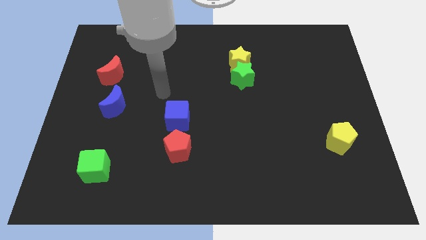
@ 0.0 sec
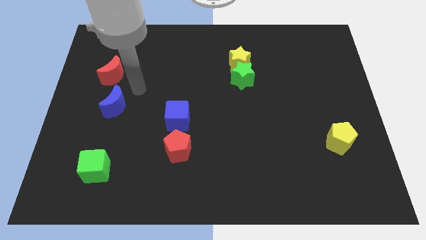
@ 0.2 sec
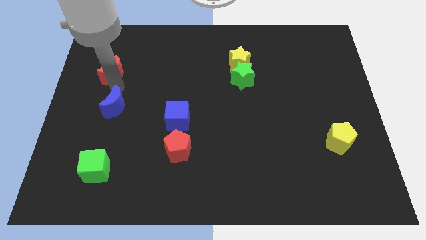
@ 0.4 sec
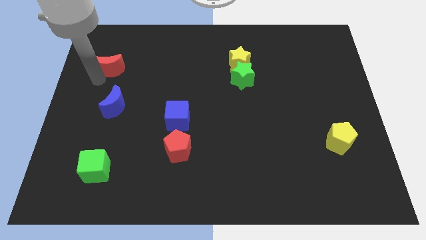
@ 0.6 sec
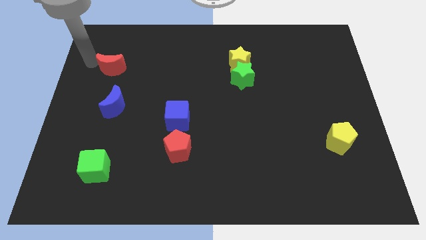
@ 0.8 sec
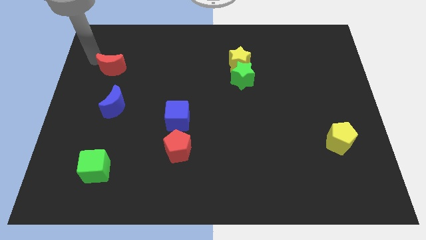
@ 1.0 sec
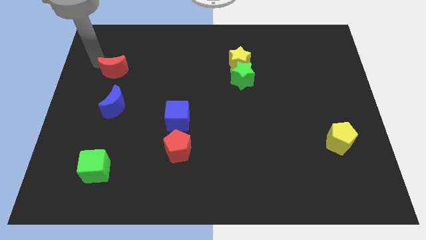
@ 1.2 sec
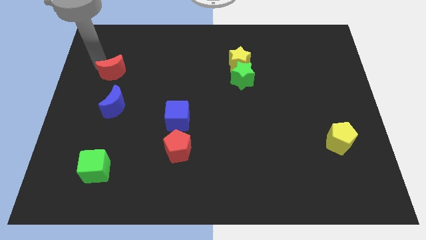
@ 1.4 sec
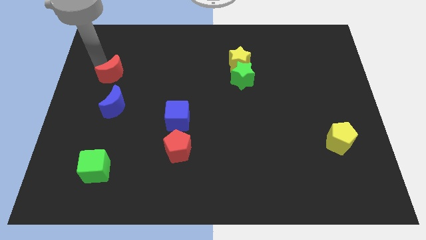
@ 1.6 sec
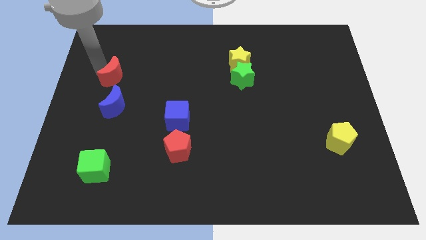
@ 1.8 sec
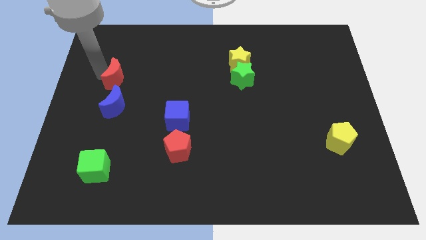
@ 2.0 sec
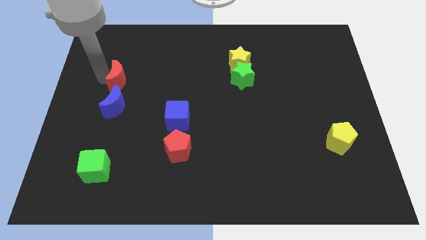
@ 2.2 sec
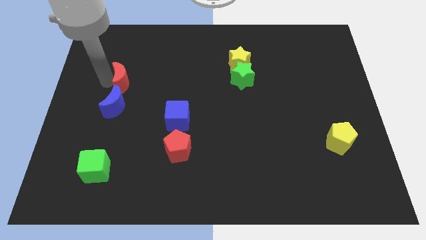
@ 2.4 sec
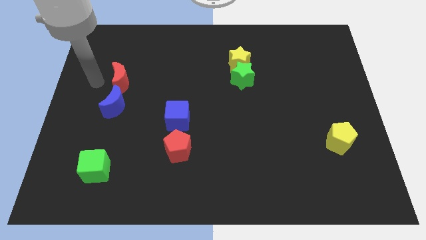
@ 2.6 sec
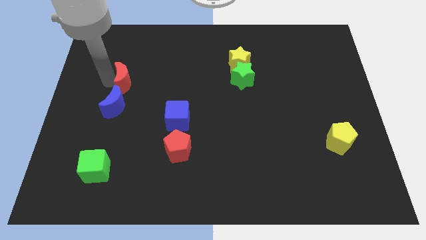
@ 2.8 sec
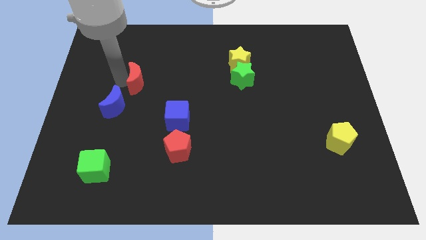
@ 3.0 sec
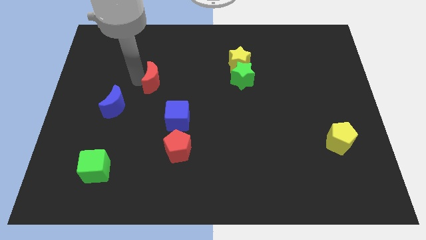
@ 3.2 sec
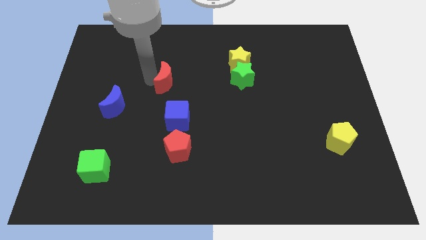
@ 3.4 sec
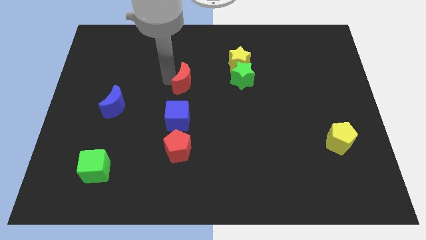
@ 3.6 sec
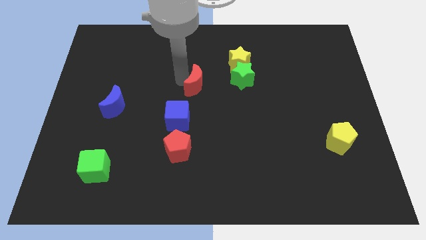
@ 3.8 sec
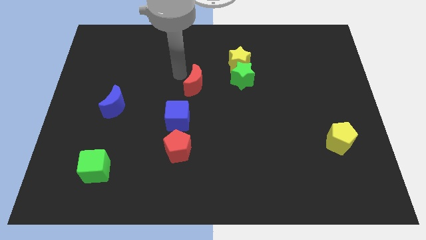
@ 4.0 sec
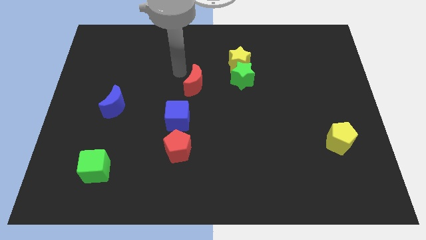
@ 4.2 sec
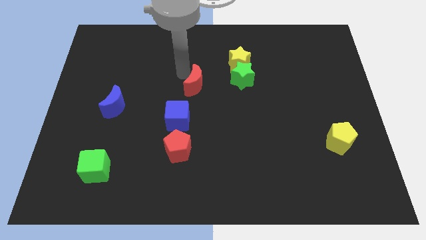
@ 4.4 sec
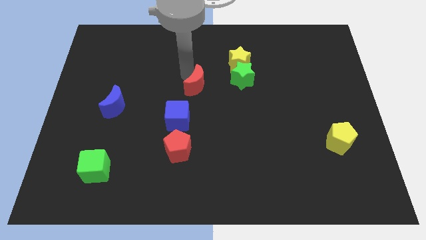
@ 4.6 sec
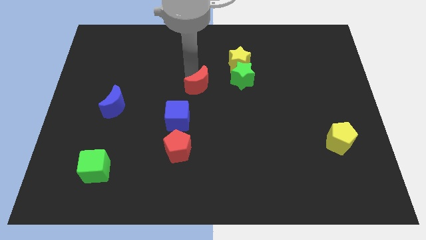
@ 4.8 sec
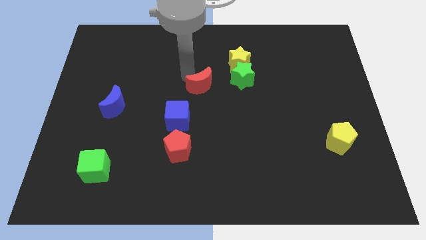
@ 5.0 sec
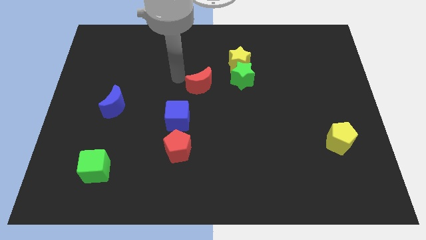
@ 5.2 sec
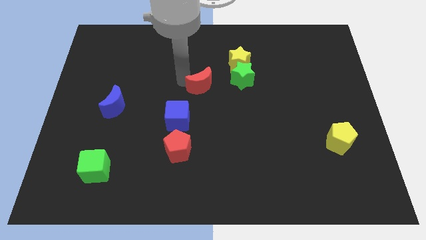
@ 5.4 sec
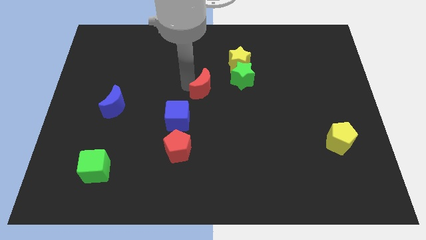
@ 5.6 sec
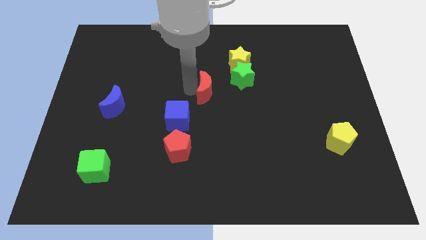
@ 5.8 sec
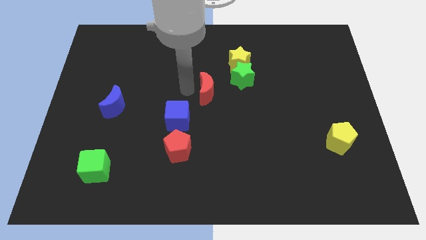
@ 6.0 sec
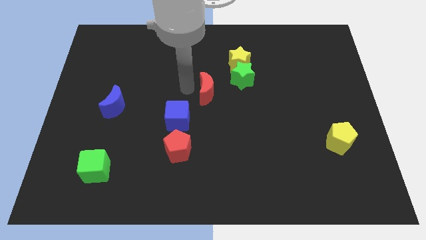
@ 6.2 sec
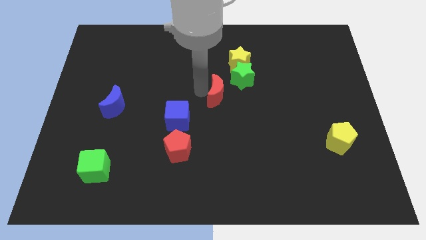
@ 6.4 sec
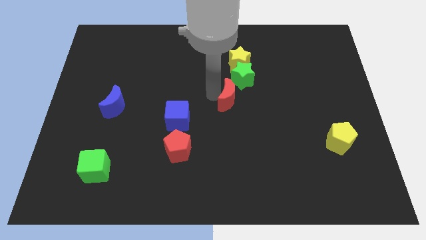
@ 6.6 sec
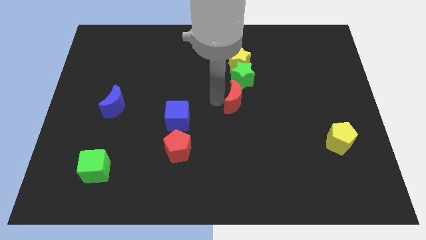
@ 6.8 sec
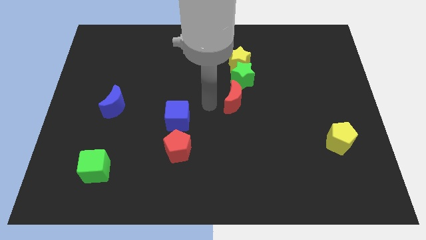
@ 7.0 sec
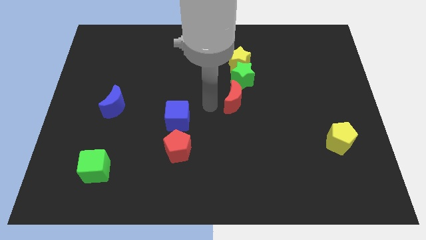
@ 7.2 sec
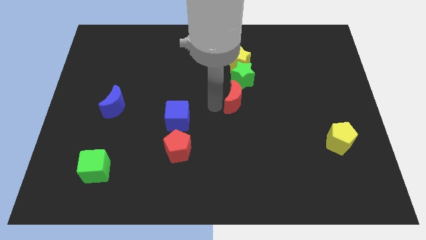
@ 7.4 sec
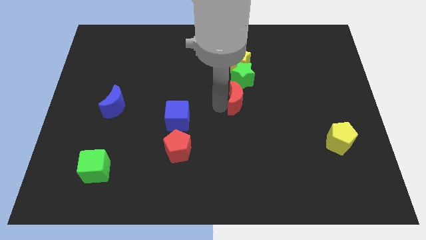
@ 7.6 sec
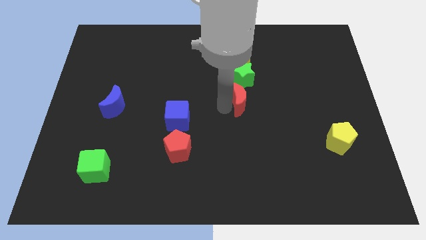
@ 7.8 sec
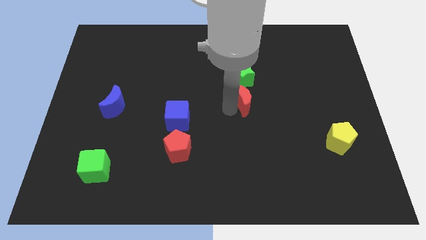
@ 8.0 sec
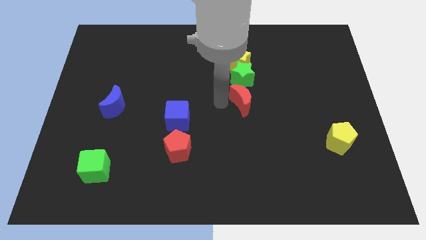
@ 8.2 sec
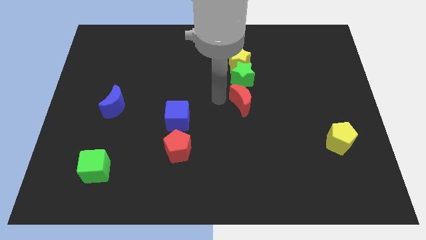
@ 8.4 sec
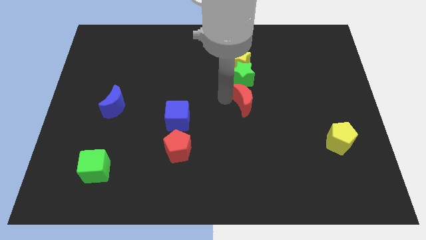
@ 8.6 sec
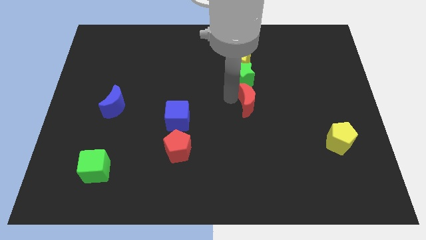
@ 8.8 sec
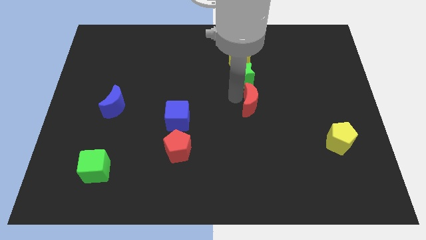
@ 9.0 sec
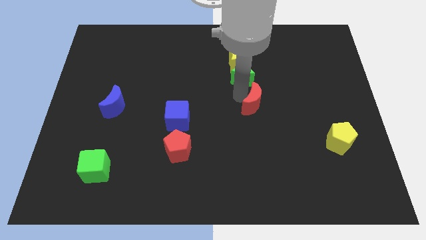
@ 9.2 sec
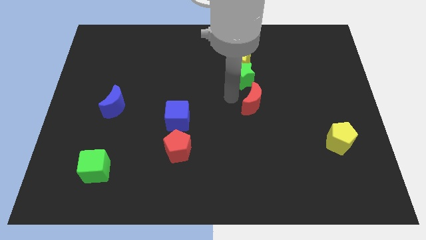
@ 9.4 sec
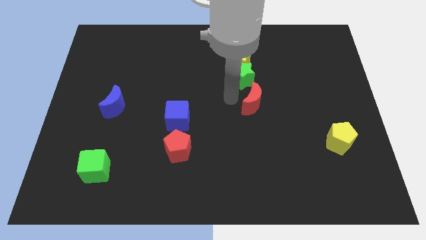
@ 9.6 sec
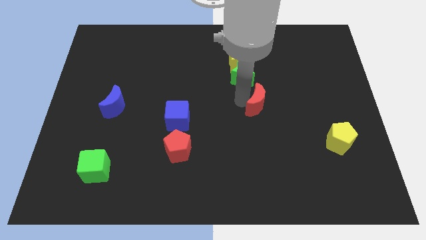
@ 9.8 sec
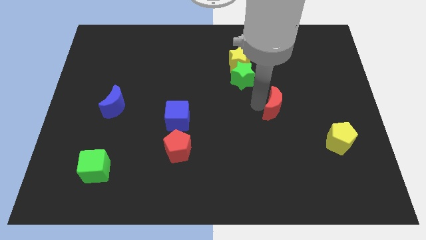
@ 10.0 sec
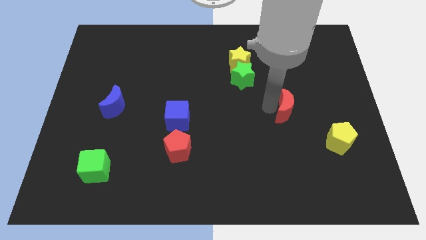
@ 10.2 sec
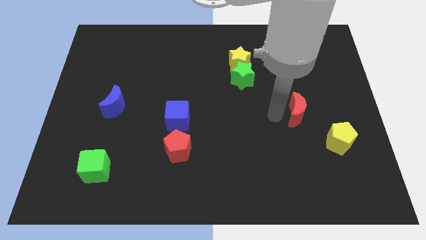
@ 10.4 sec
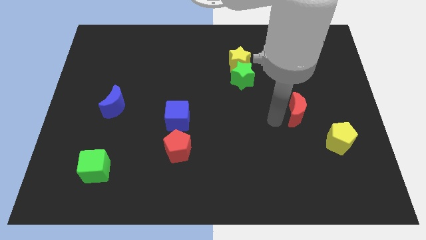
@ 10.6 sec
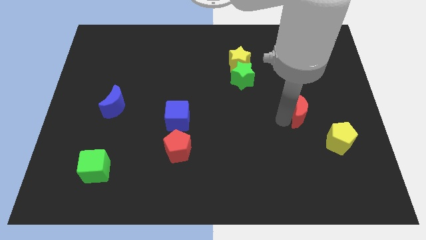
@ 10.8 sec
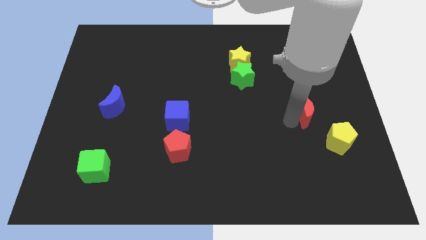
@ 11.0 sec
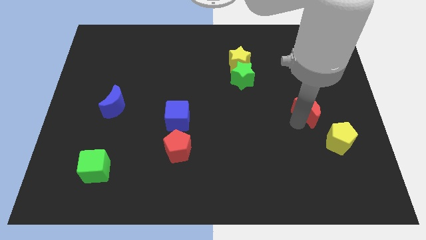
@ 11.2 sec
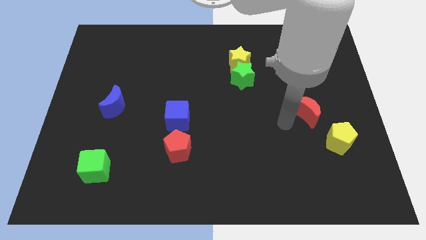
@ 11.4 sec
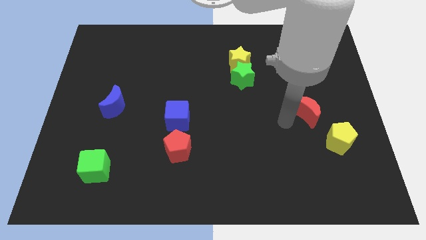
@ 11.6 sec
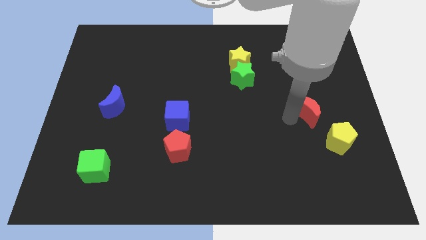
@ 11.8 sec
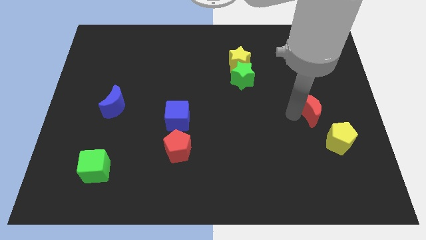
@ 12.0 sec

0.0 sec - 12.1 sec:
move the red moon to the top of the yellow pentagon

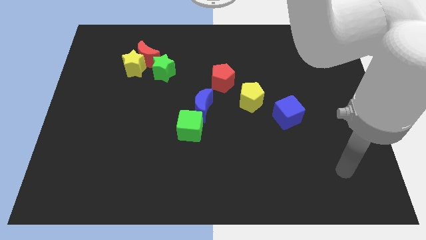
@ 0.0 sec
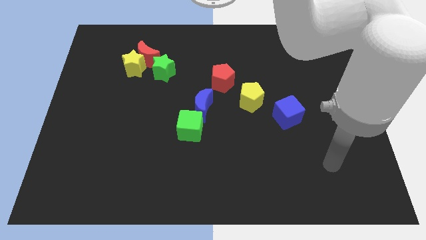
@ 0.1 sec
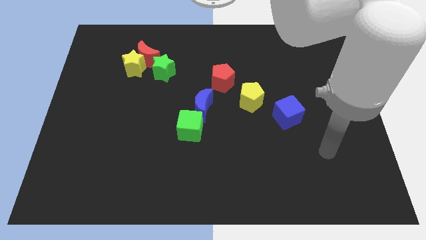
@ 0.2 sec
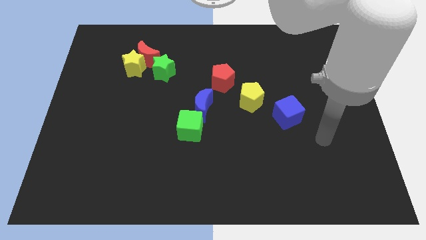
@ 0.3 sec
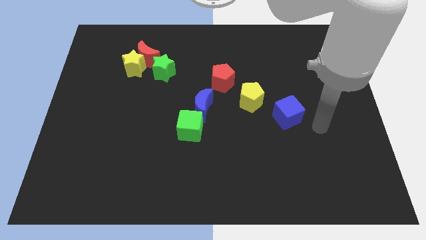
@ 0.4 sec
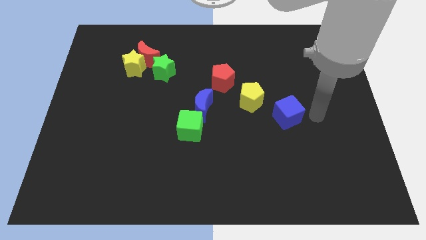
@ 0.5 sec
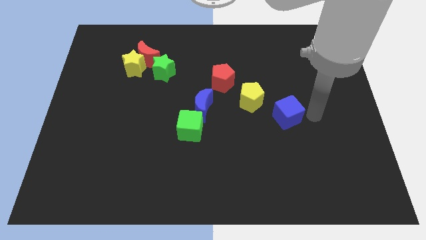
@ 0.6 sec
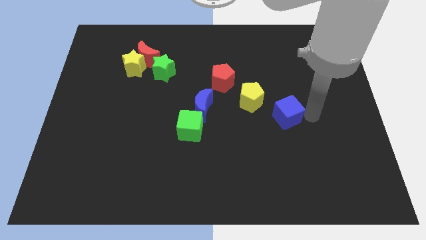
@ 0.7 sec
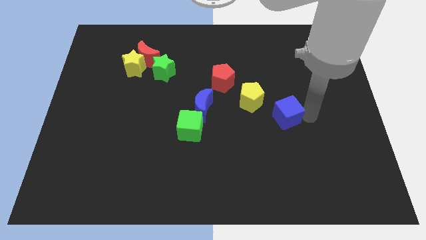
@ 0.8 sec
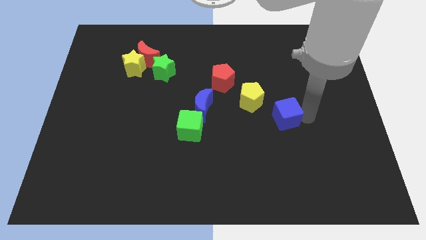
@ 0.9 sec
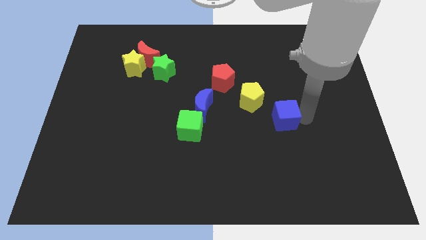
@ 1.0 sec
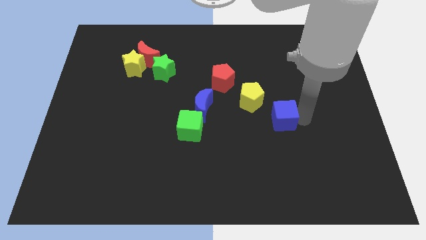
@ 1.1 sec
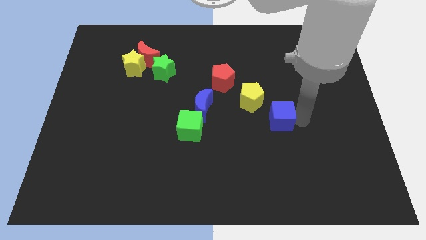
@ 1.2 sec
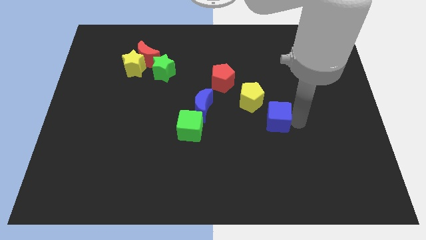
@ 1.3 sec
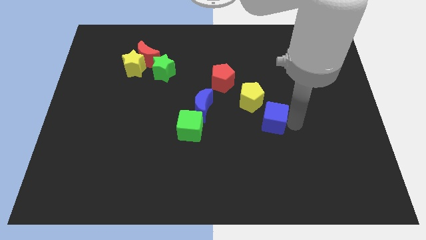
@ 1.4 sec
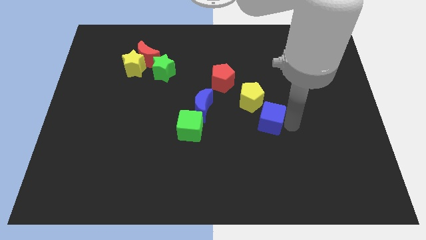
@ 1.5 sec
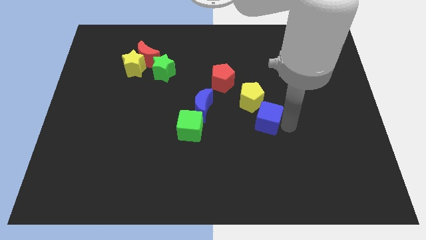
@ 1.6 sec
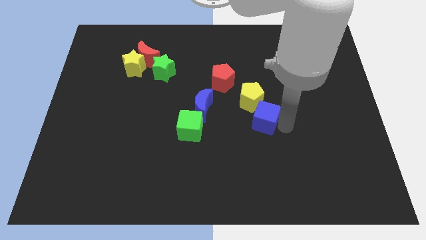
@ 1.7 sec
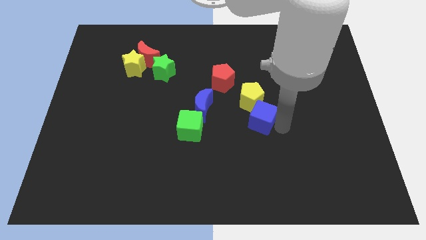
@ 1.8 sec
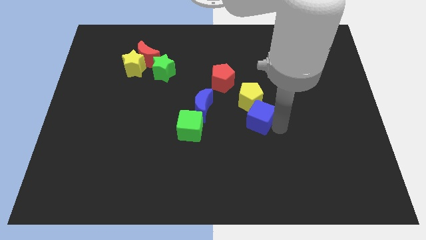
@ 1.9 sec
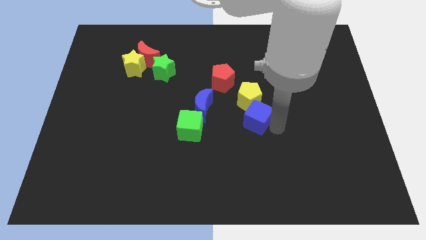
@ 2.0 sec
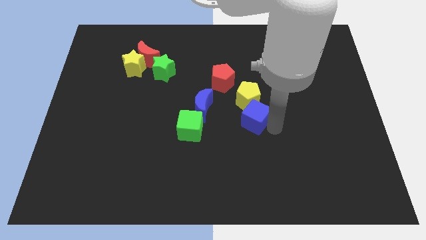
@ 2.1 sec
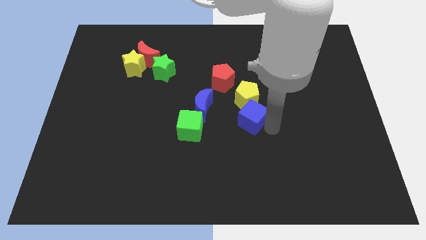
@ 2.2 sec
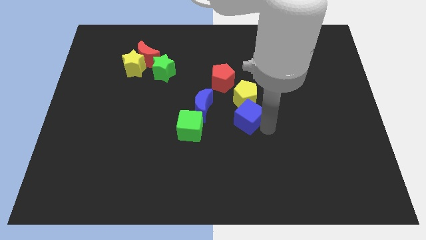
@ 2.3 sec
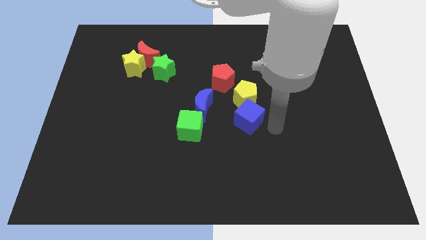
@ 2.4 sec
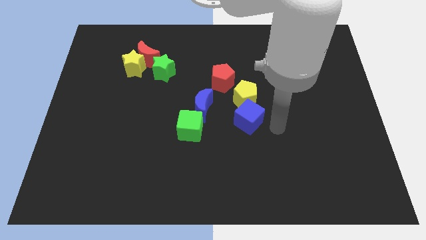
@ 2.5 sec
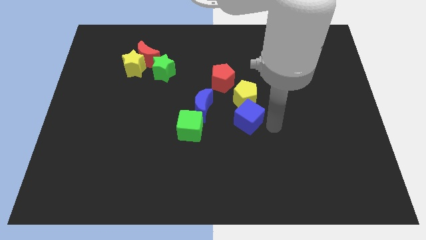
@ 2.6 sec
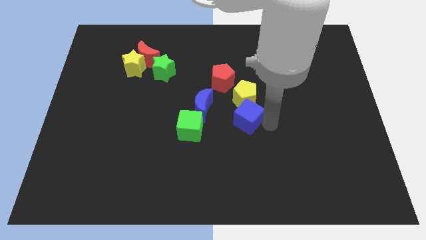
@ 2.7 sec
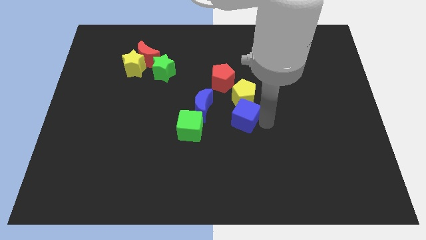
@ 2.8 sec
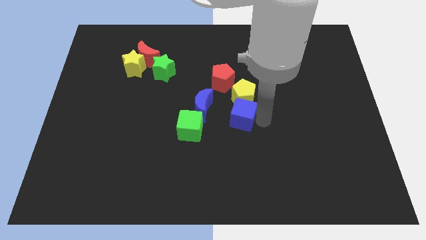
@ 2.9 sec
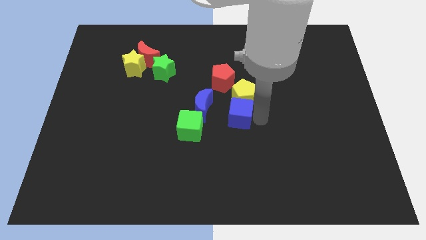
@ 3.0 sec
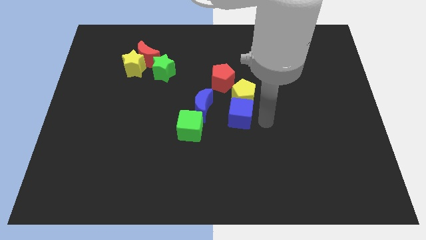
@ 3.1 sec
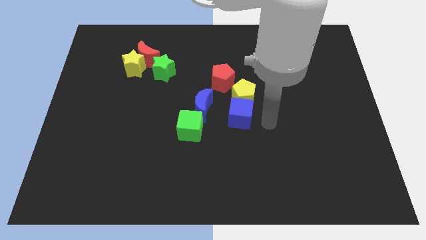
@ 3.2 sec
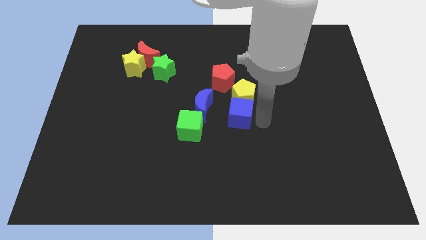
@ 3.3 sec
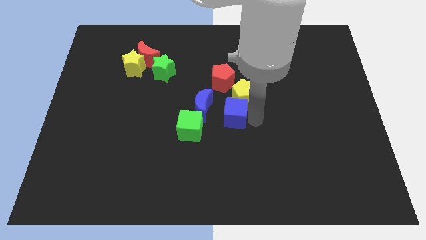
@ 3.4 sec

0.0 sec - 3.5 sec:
slide the blue cube diagonally up and to the right of the green cube
